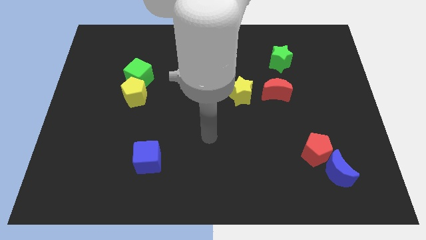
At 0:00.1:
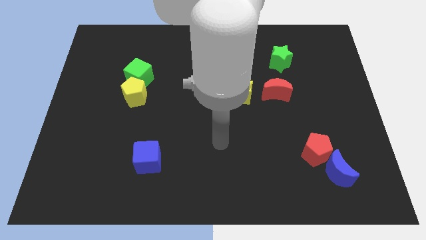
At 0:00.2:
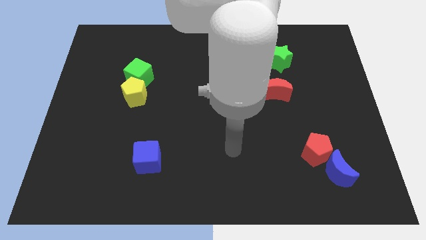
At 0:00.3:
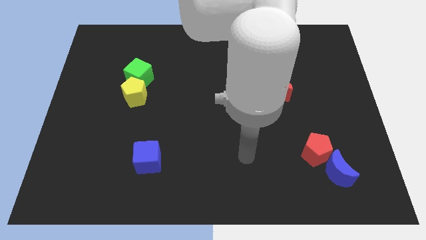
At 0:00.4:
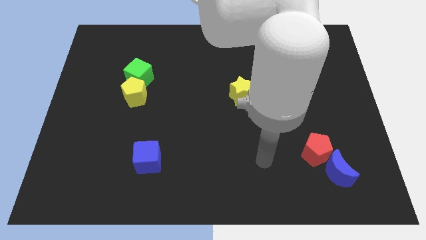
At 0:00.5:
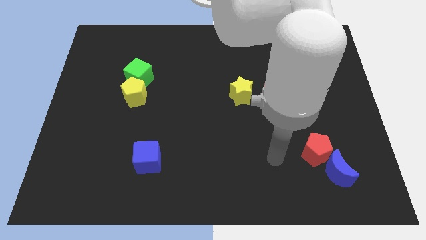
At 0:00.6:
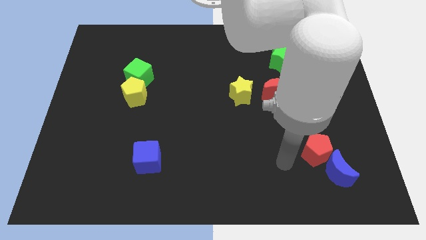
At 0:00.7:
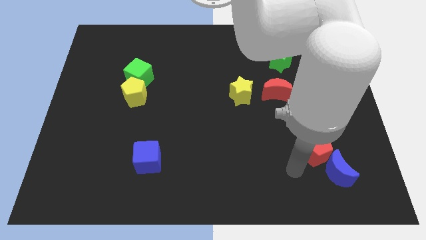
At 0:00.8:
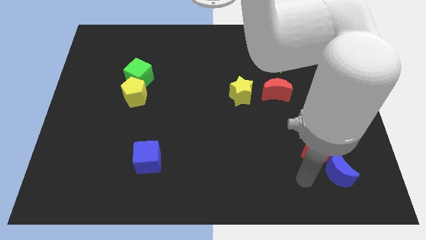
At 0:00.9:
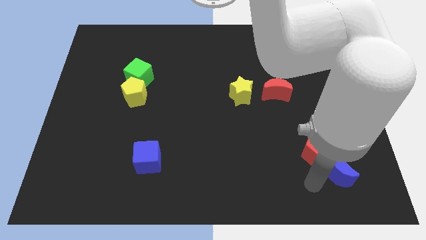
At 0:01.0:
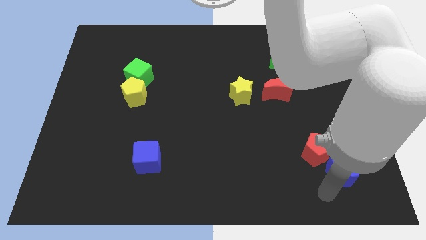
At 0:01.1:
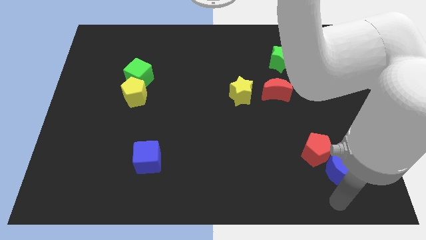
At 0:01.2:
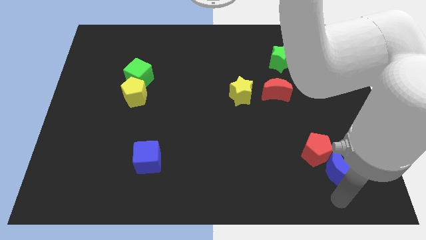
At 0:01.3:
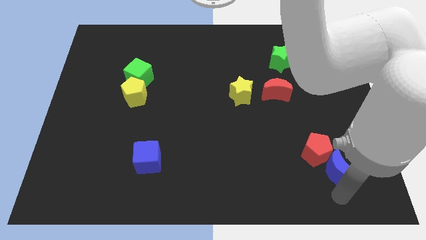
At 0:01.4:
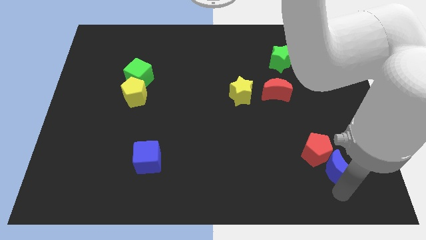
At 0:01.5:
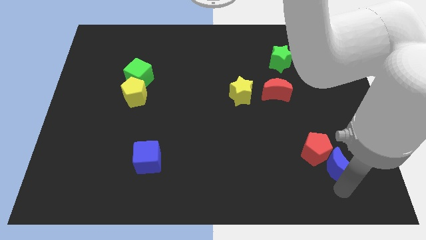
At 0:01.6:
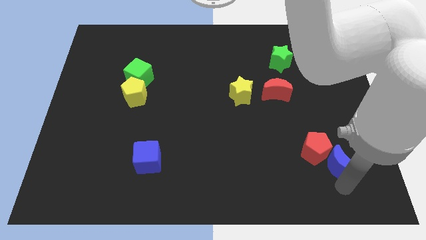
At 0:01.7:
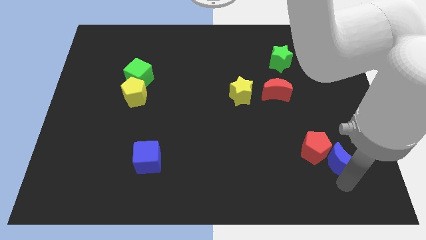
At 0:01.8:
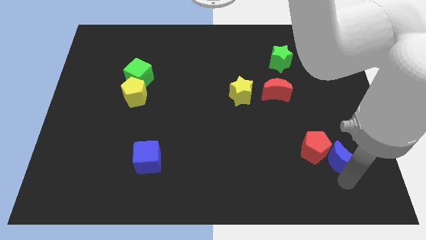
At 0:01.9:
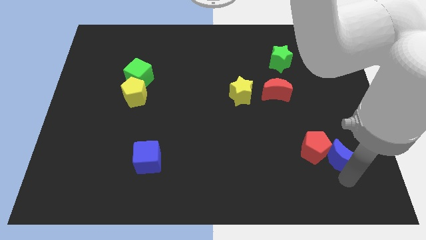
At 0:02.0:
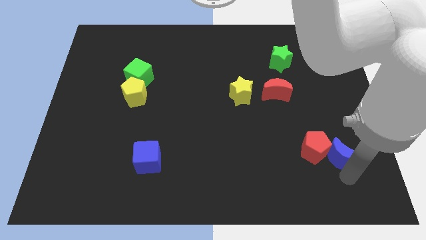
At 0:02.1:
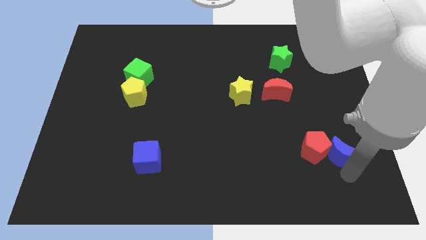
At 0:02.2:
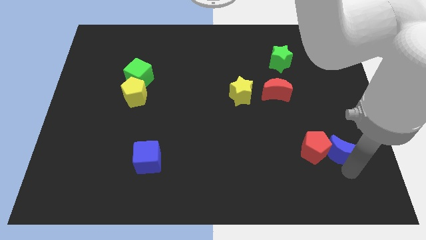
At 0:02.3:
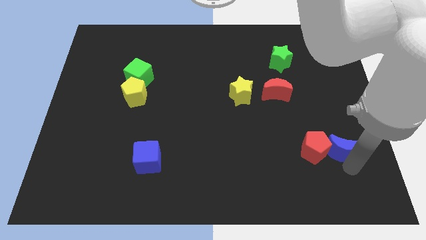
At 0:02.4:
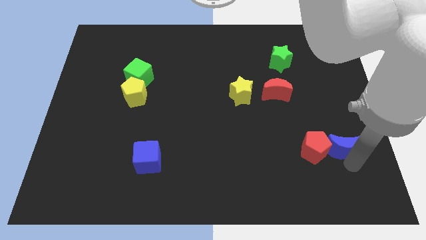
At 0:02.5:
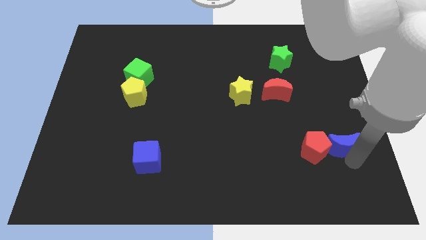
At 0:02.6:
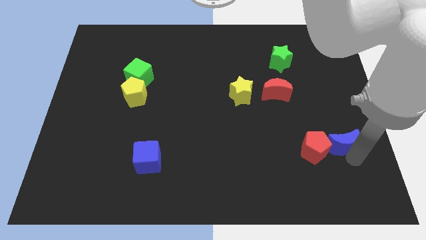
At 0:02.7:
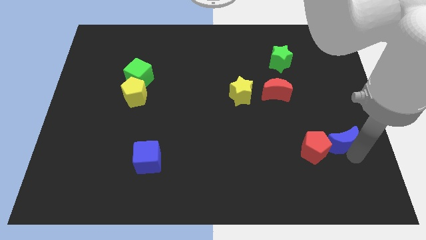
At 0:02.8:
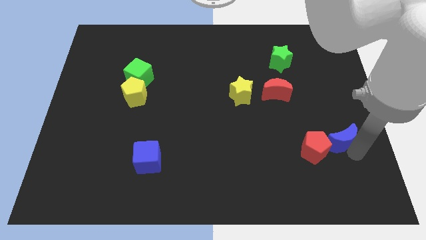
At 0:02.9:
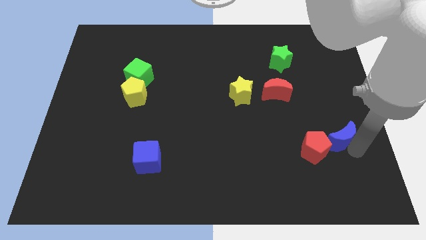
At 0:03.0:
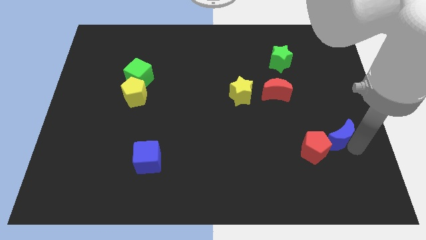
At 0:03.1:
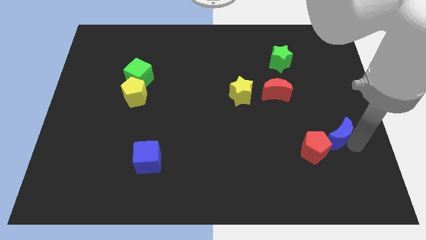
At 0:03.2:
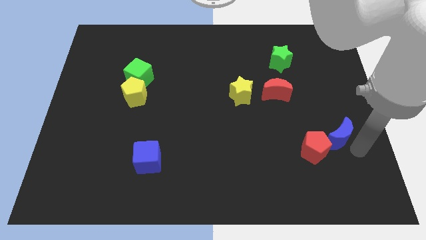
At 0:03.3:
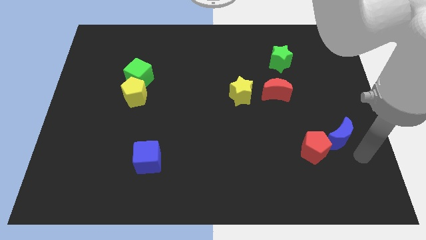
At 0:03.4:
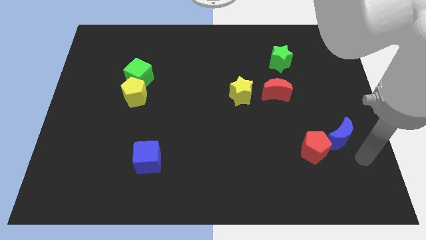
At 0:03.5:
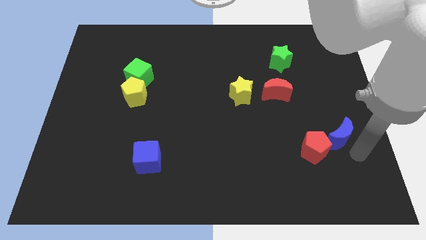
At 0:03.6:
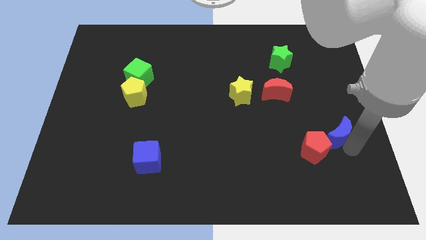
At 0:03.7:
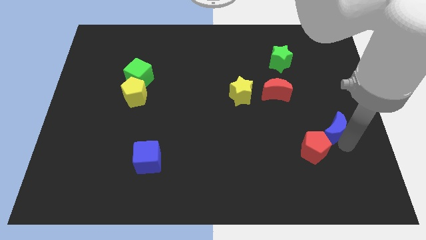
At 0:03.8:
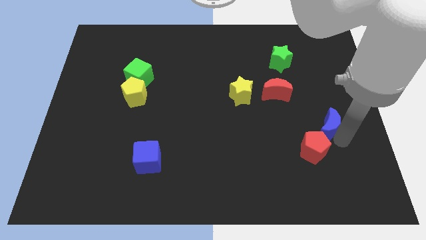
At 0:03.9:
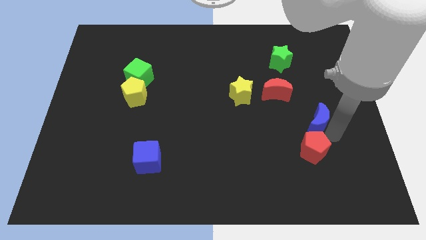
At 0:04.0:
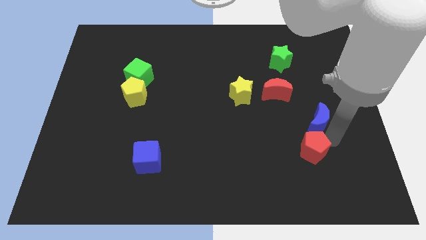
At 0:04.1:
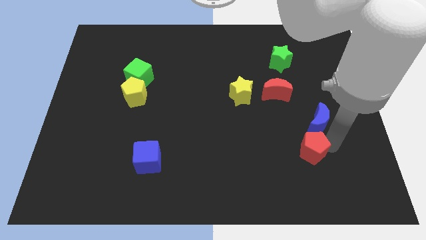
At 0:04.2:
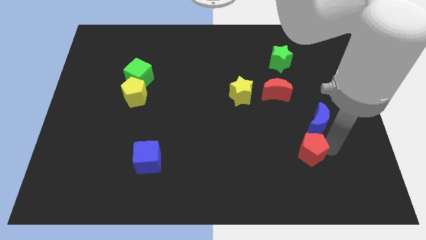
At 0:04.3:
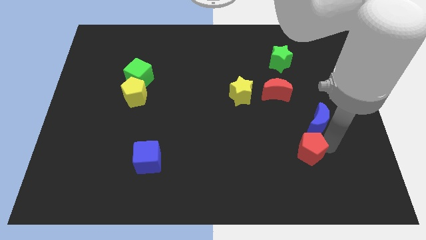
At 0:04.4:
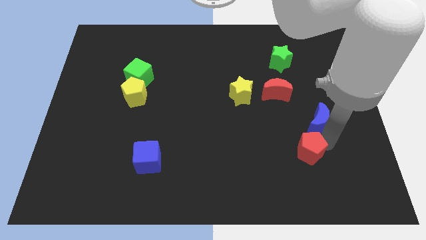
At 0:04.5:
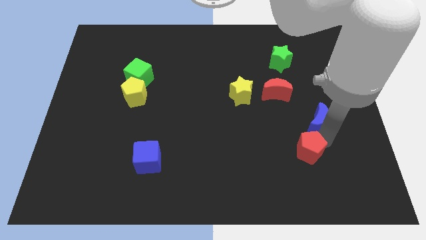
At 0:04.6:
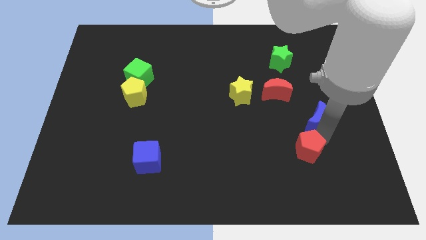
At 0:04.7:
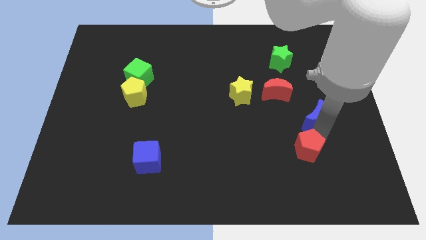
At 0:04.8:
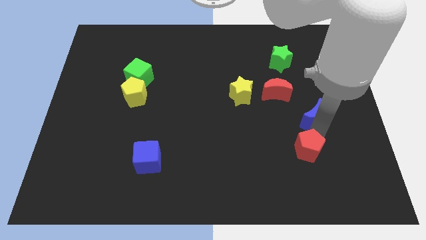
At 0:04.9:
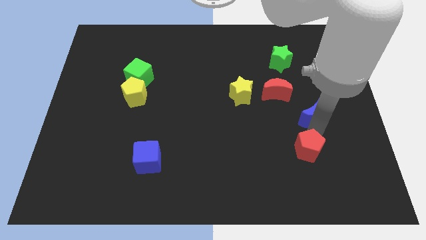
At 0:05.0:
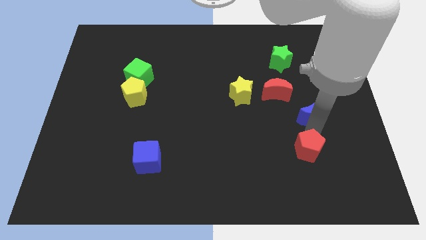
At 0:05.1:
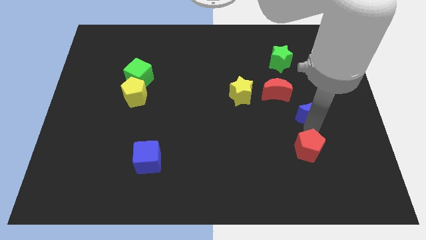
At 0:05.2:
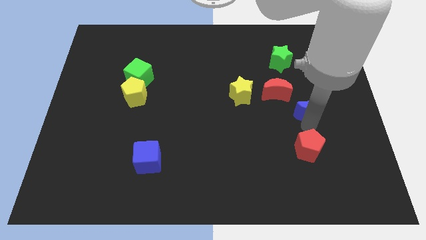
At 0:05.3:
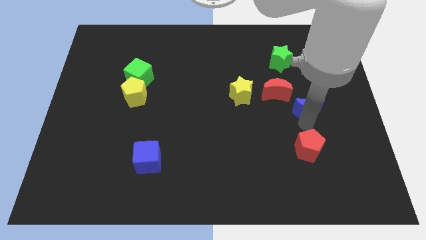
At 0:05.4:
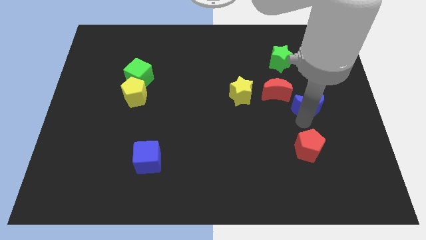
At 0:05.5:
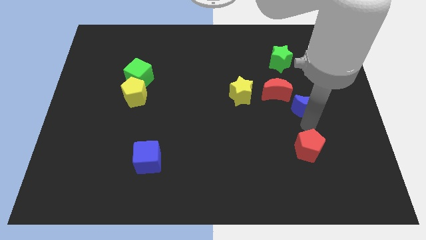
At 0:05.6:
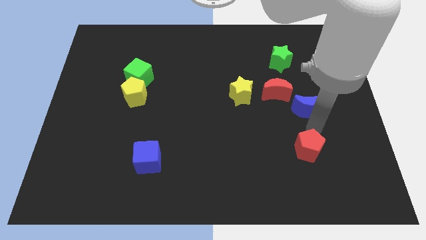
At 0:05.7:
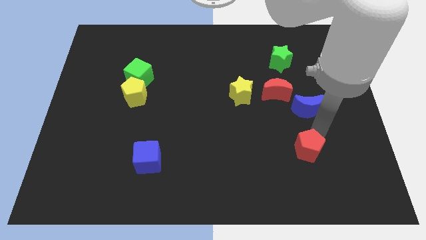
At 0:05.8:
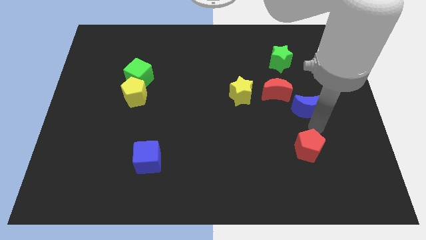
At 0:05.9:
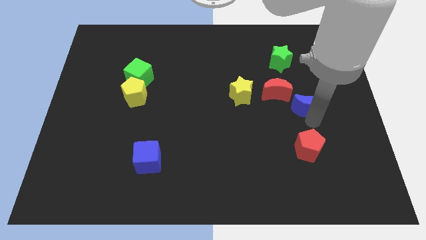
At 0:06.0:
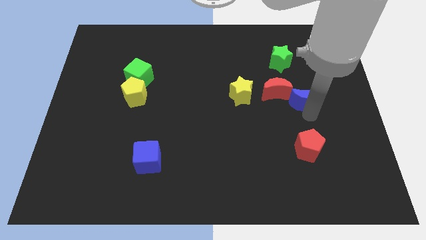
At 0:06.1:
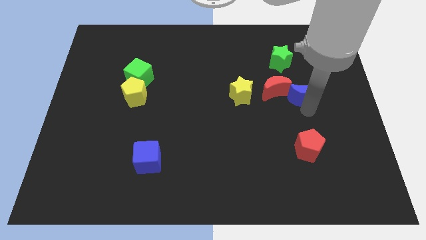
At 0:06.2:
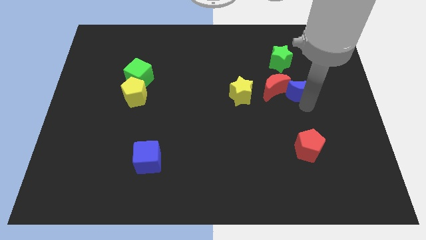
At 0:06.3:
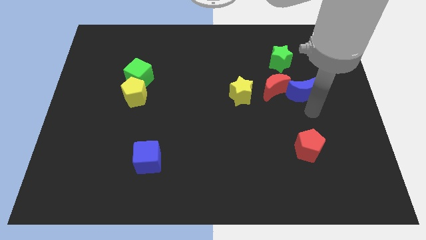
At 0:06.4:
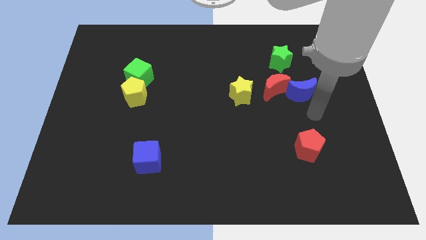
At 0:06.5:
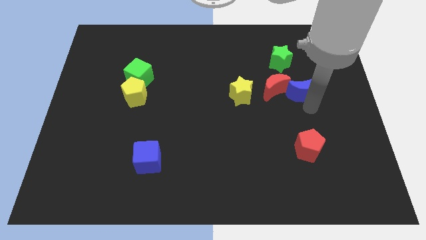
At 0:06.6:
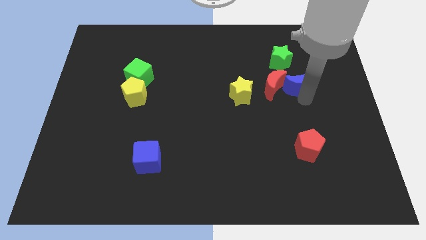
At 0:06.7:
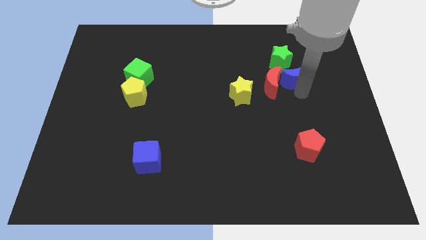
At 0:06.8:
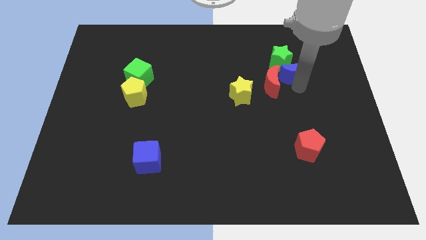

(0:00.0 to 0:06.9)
push the blue moon to the green star

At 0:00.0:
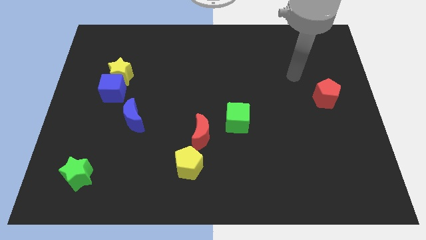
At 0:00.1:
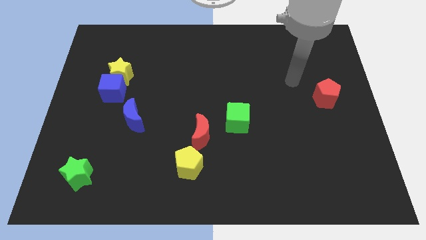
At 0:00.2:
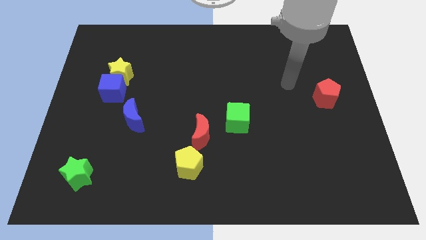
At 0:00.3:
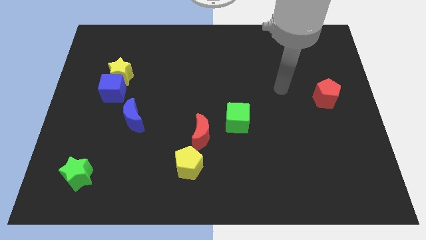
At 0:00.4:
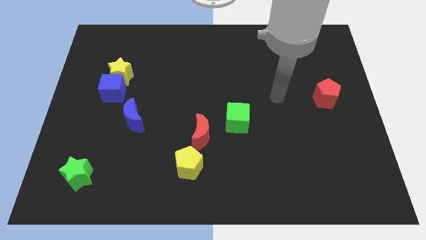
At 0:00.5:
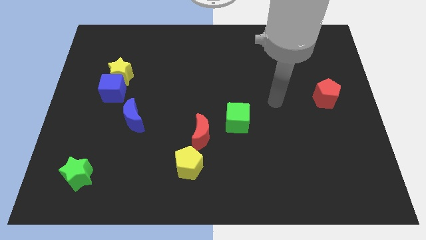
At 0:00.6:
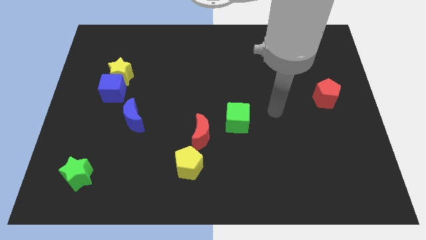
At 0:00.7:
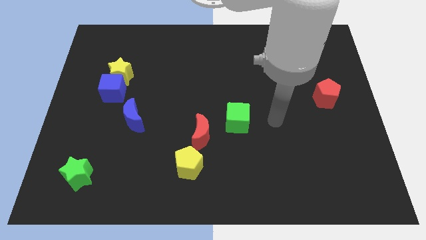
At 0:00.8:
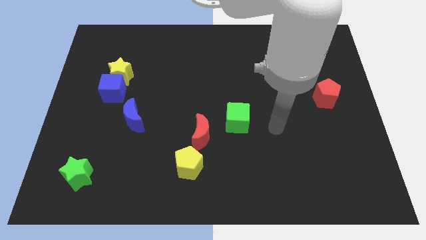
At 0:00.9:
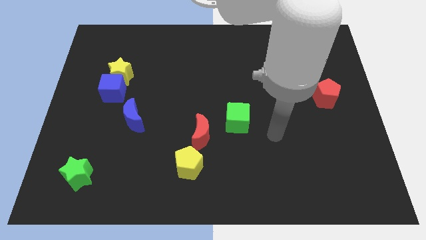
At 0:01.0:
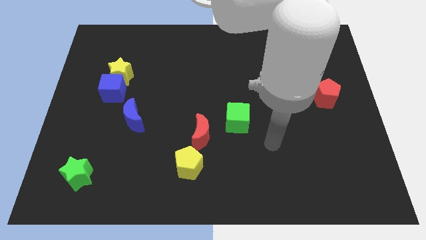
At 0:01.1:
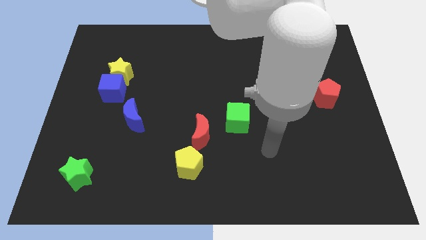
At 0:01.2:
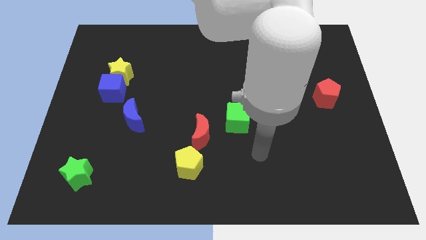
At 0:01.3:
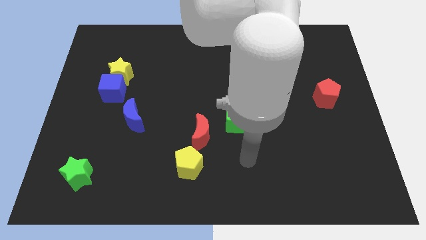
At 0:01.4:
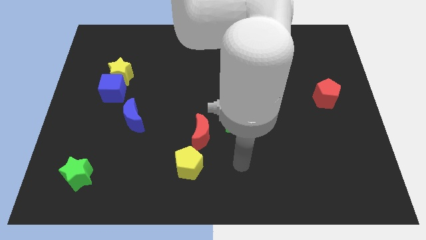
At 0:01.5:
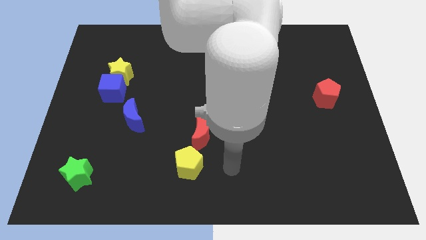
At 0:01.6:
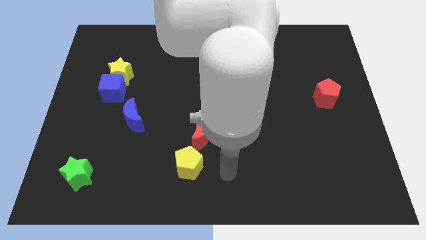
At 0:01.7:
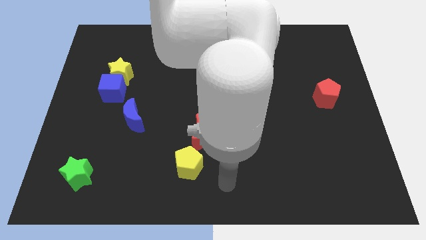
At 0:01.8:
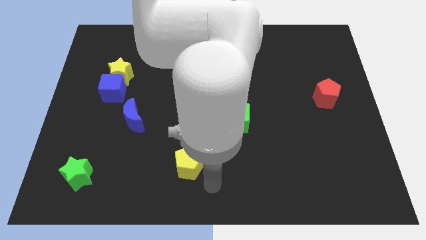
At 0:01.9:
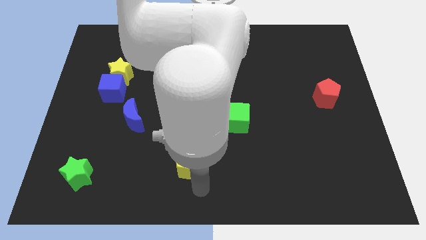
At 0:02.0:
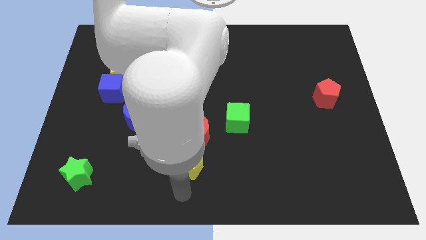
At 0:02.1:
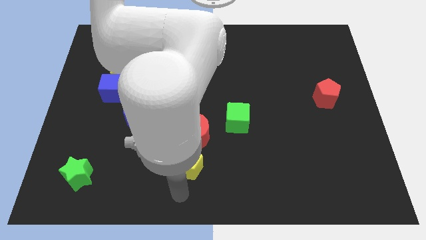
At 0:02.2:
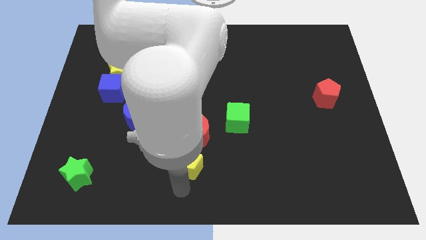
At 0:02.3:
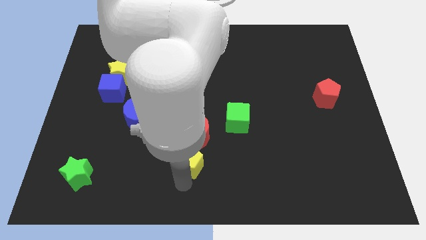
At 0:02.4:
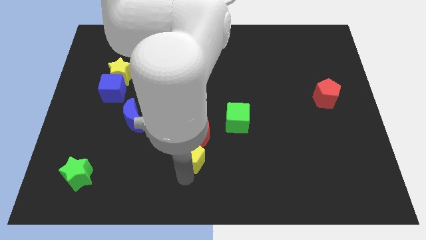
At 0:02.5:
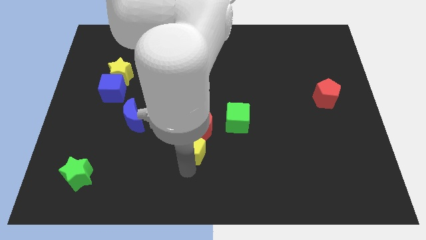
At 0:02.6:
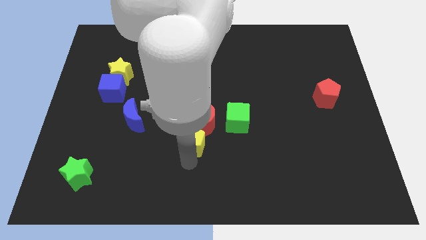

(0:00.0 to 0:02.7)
move the yellow pentagon next to the red moon
